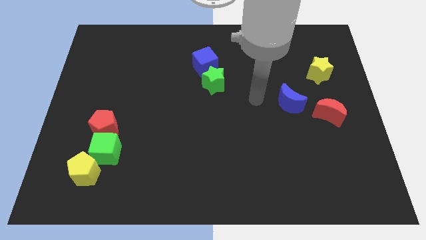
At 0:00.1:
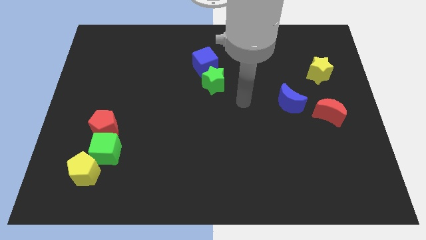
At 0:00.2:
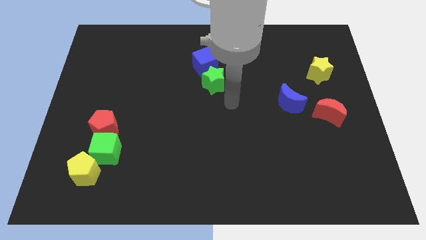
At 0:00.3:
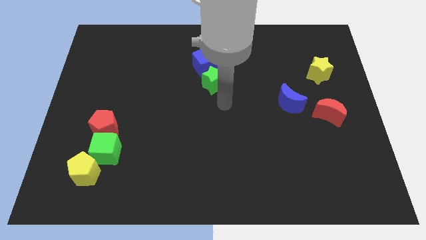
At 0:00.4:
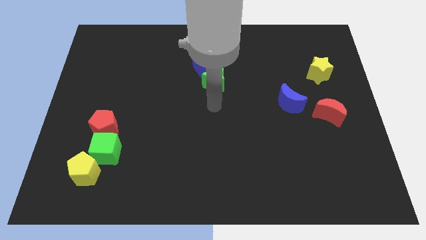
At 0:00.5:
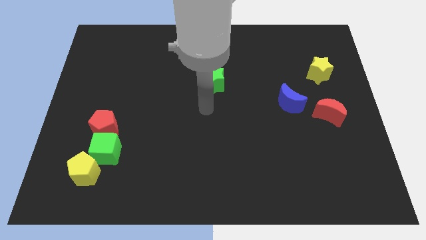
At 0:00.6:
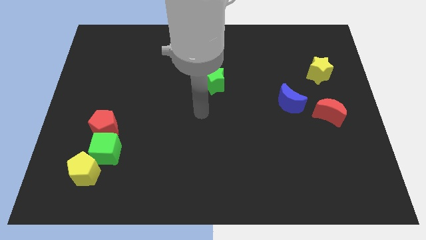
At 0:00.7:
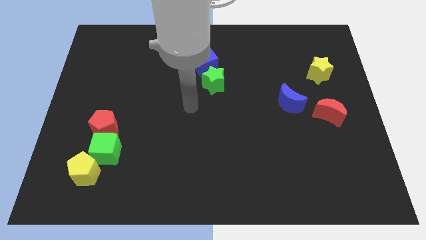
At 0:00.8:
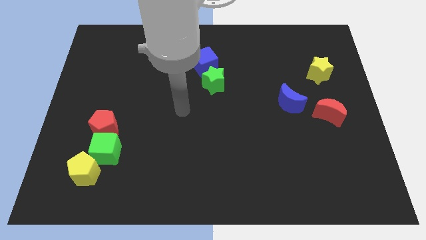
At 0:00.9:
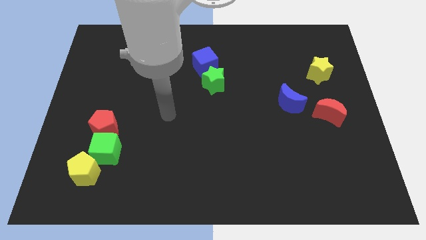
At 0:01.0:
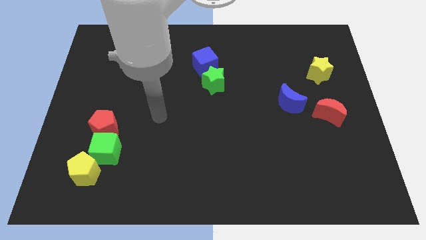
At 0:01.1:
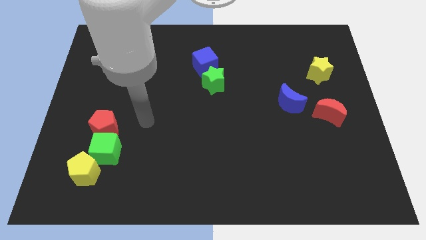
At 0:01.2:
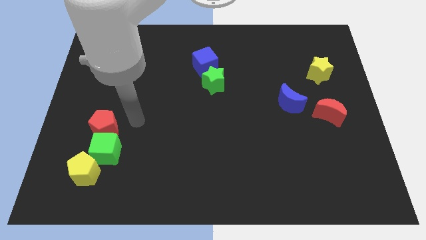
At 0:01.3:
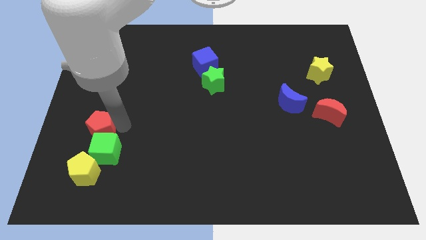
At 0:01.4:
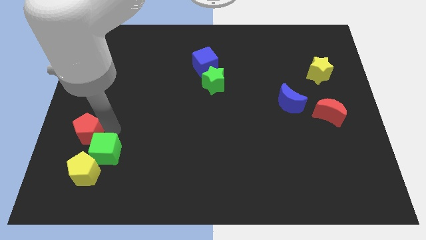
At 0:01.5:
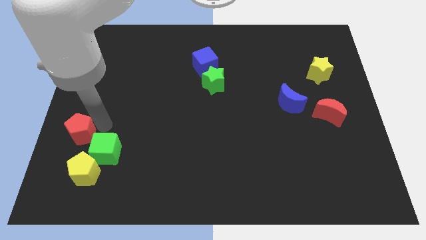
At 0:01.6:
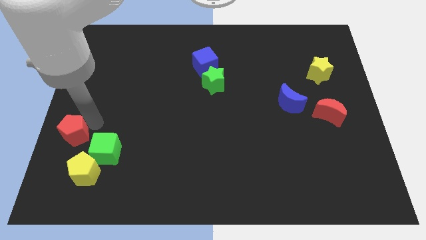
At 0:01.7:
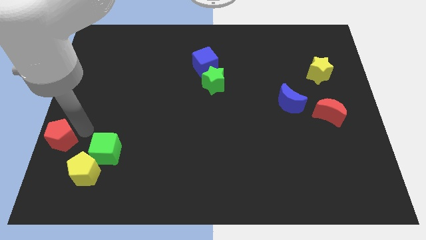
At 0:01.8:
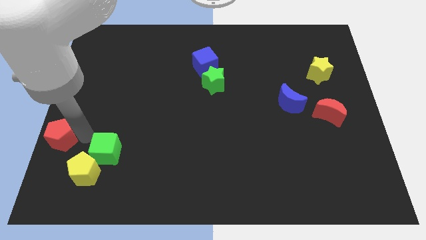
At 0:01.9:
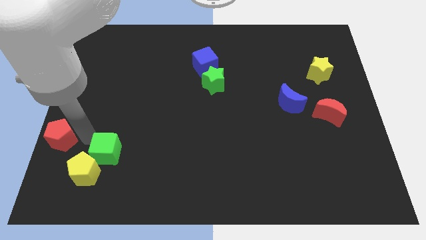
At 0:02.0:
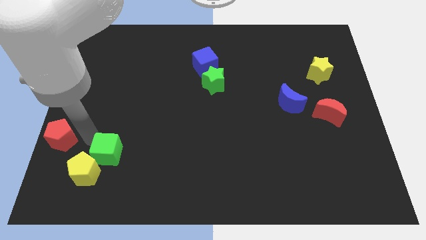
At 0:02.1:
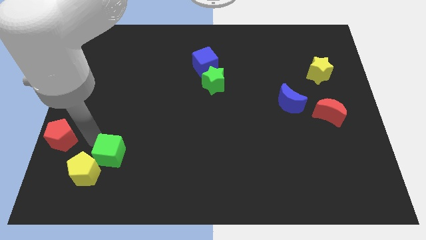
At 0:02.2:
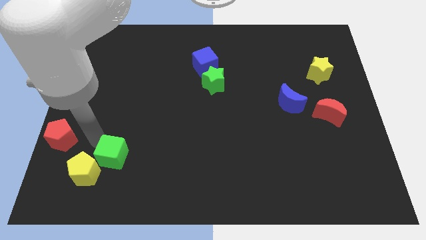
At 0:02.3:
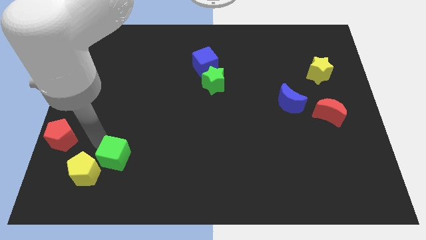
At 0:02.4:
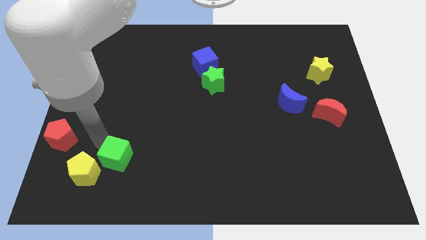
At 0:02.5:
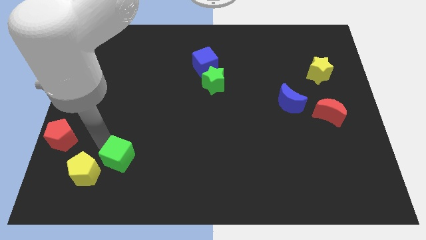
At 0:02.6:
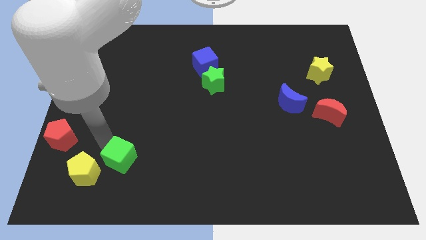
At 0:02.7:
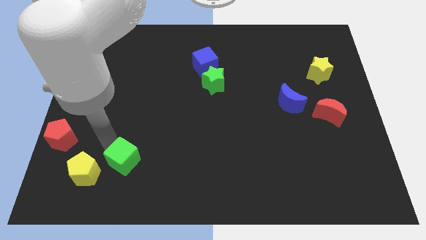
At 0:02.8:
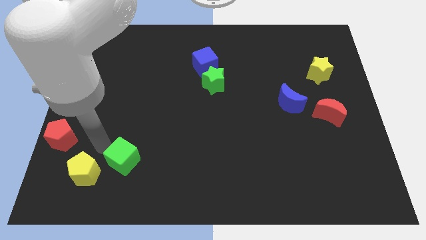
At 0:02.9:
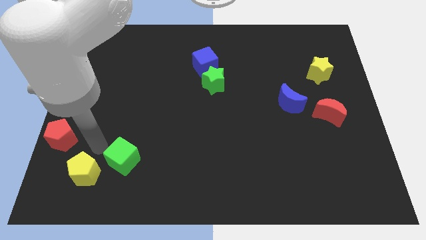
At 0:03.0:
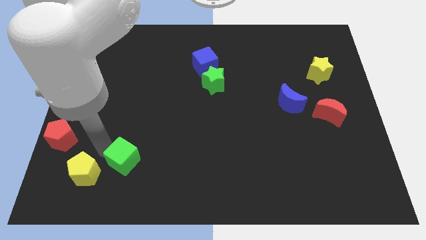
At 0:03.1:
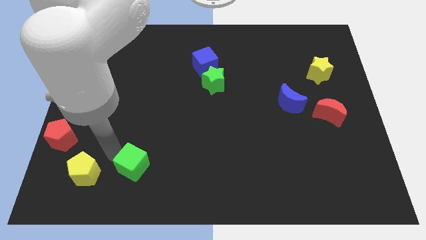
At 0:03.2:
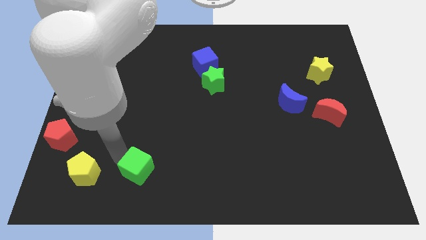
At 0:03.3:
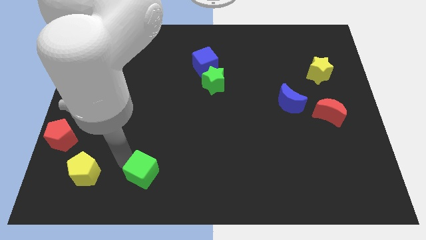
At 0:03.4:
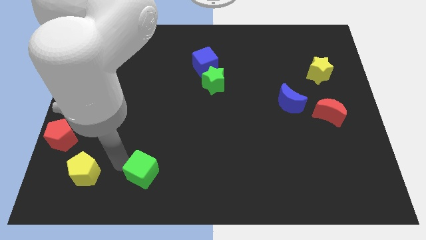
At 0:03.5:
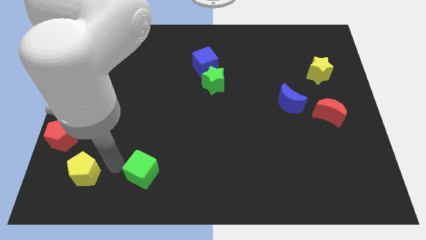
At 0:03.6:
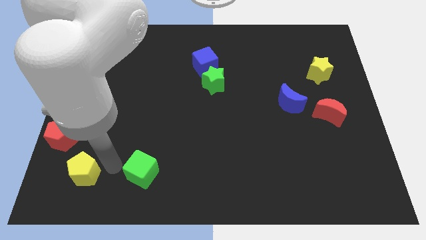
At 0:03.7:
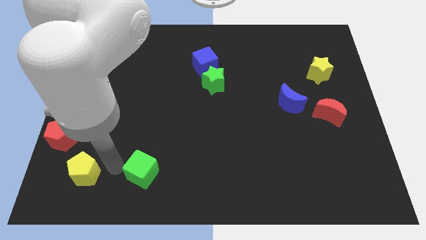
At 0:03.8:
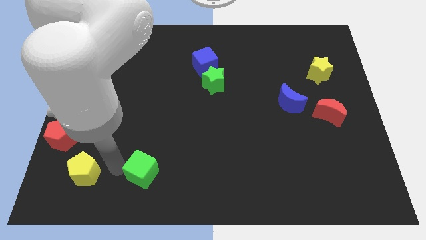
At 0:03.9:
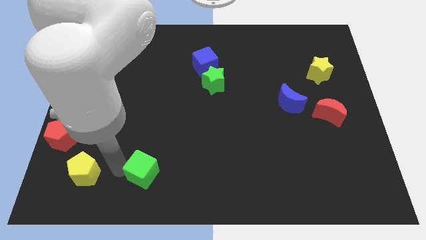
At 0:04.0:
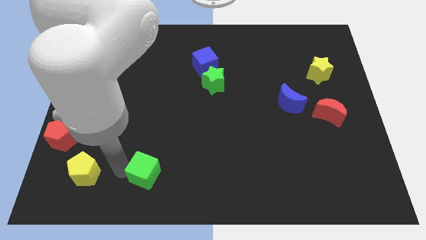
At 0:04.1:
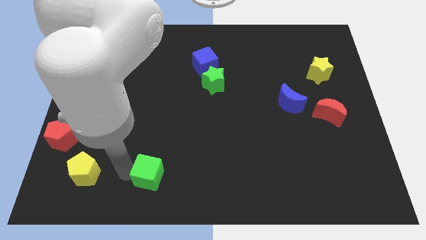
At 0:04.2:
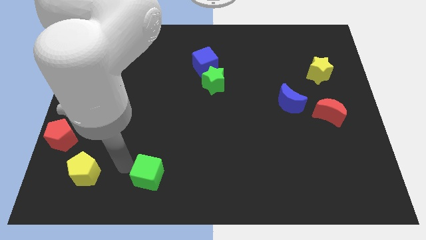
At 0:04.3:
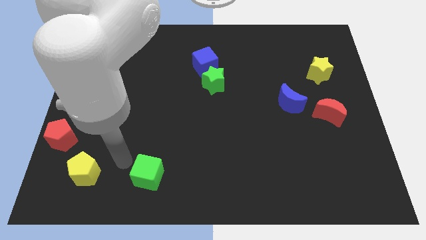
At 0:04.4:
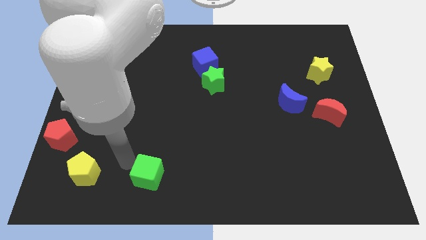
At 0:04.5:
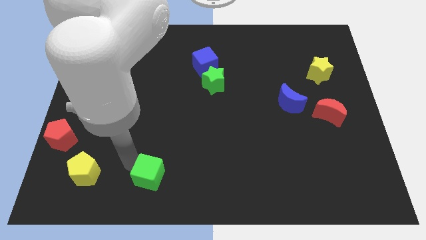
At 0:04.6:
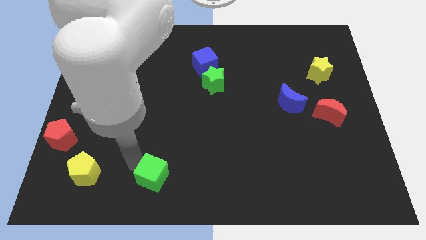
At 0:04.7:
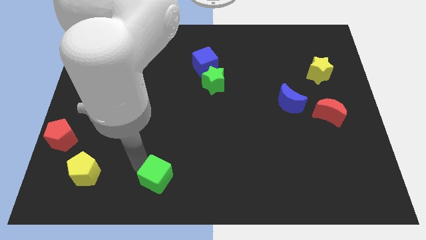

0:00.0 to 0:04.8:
put the green cube to the bottom side

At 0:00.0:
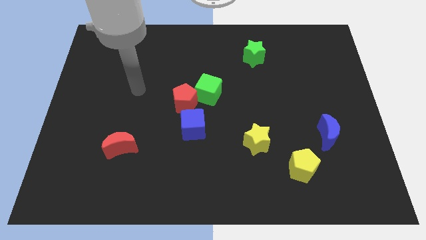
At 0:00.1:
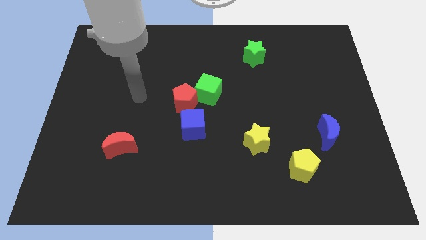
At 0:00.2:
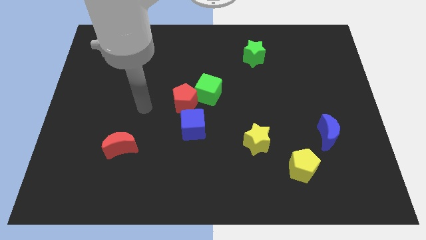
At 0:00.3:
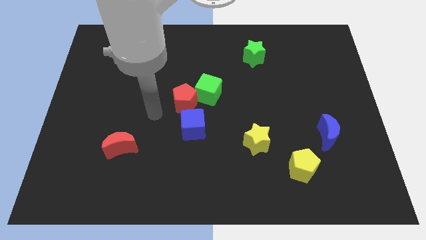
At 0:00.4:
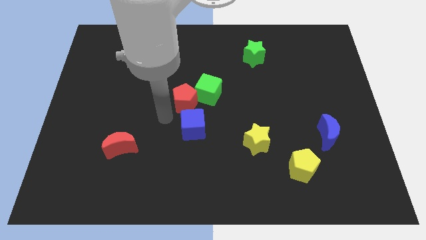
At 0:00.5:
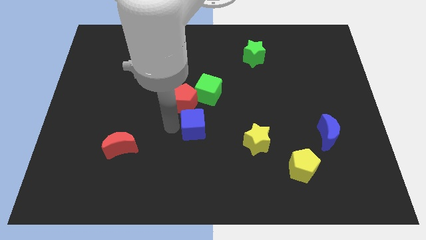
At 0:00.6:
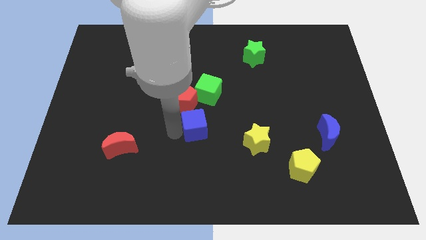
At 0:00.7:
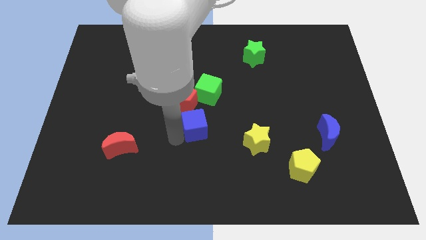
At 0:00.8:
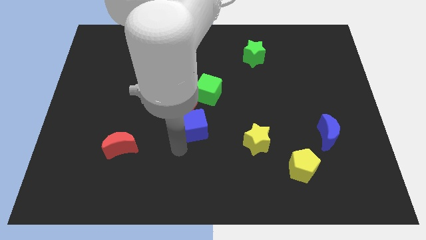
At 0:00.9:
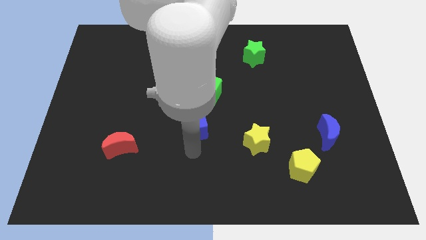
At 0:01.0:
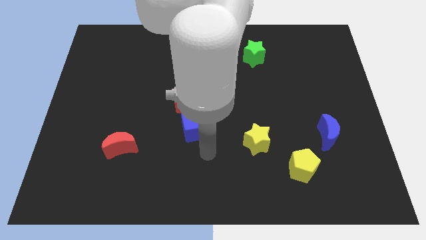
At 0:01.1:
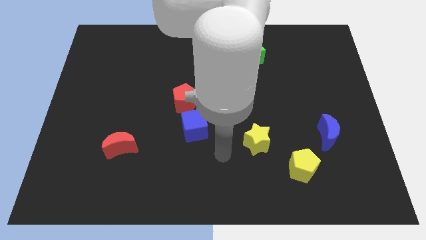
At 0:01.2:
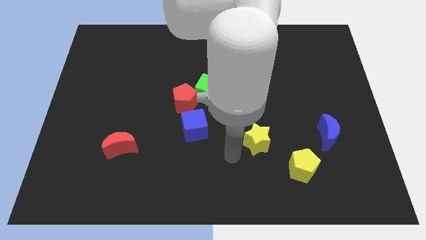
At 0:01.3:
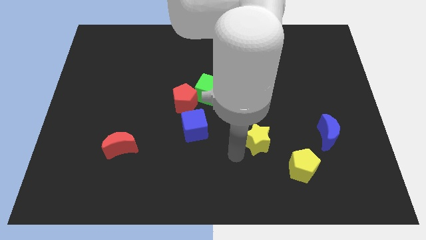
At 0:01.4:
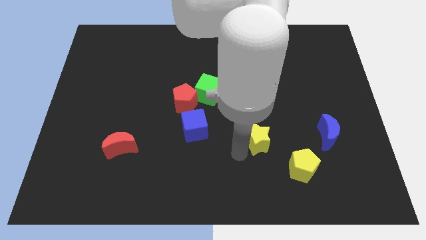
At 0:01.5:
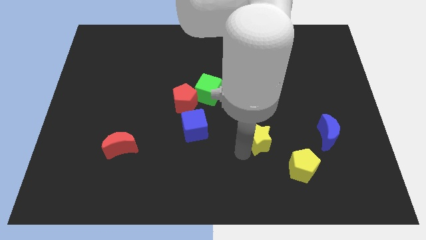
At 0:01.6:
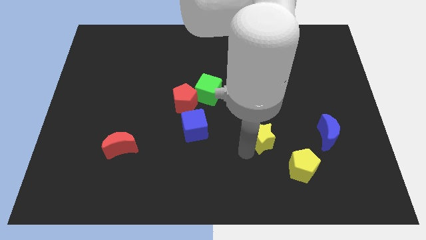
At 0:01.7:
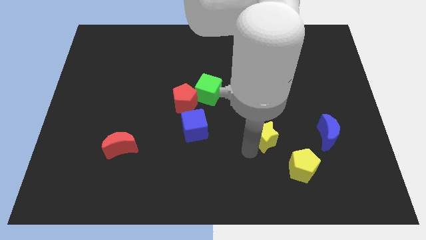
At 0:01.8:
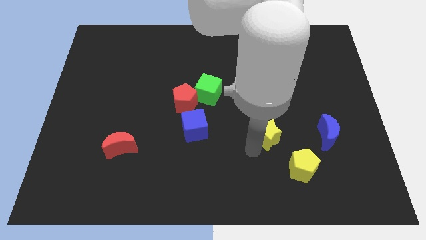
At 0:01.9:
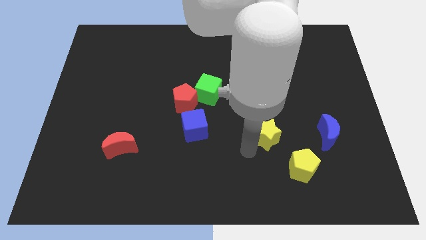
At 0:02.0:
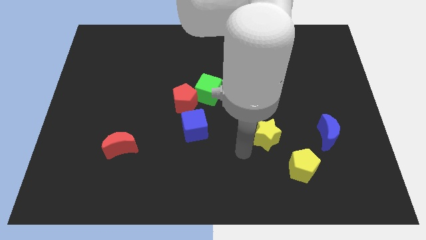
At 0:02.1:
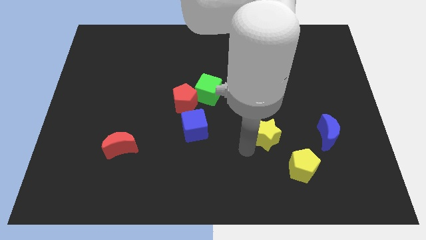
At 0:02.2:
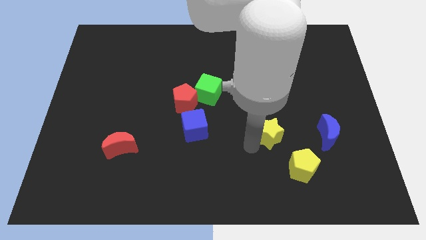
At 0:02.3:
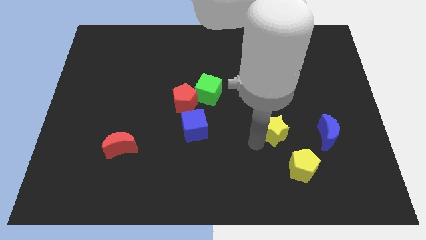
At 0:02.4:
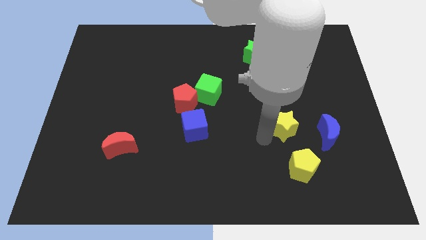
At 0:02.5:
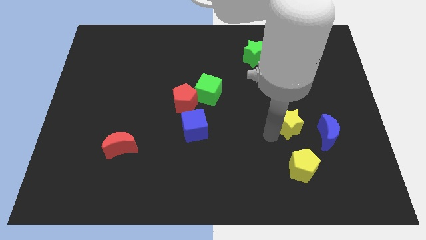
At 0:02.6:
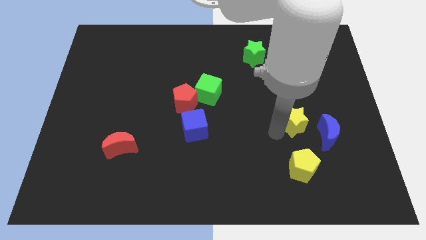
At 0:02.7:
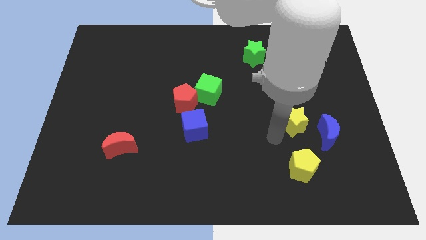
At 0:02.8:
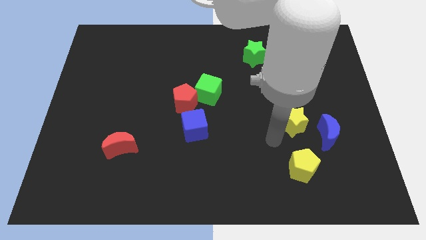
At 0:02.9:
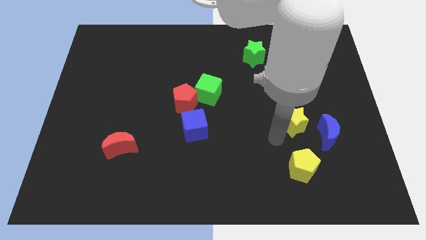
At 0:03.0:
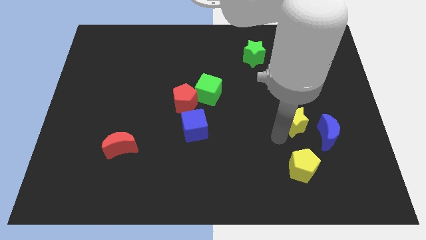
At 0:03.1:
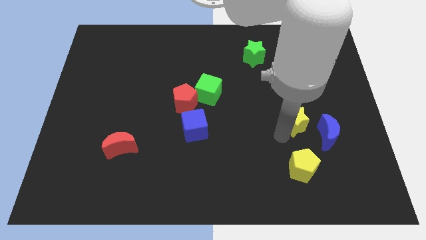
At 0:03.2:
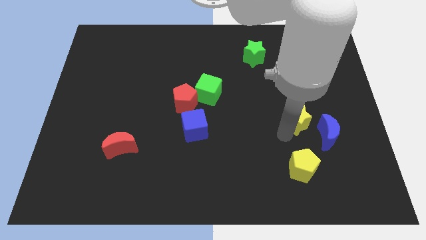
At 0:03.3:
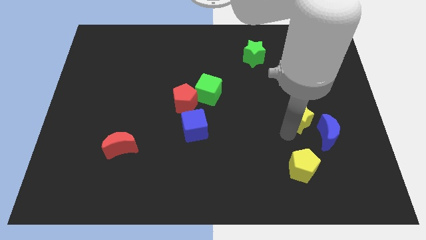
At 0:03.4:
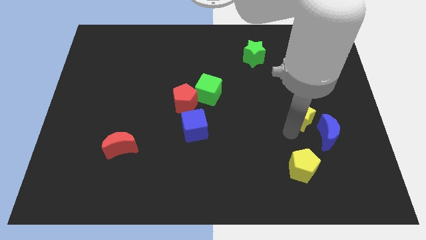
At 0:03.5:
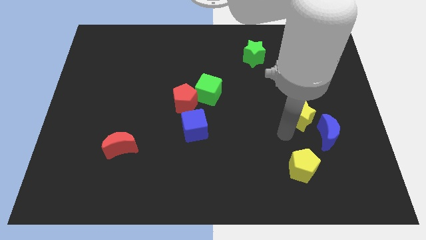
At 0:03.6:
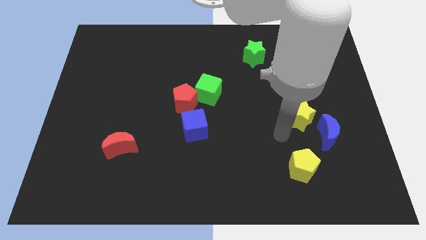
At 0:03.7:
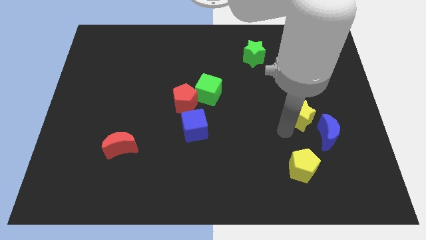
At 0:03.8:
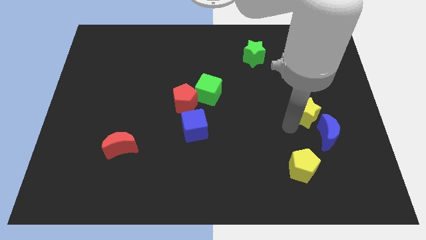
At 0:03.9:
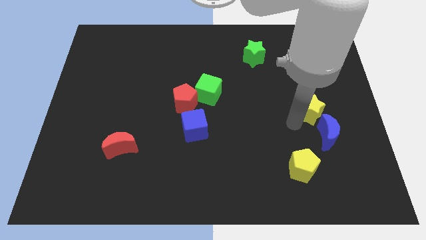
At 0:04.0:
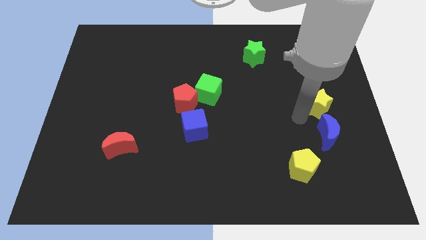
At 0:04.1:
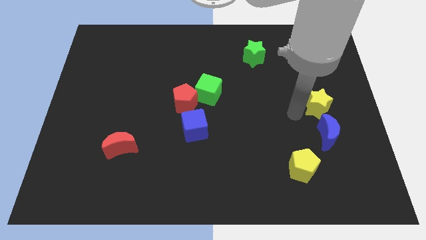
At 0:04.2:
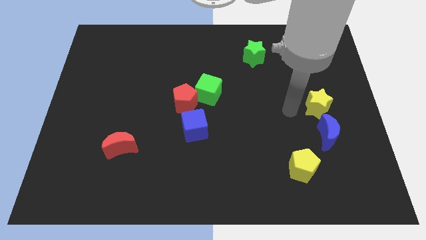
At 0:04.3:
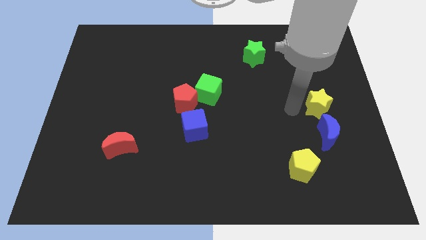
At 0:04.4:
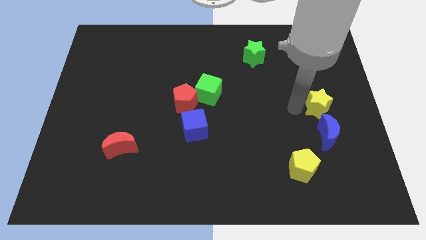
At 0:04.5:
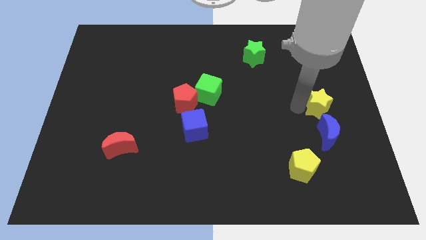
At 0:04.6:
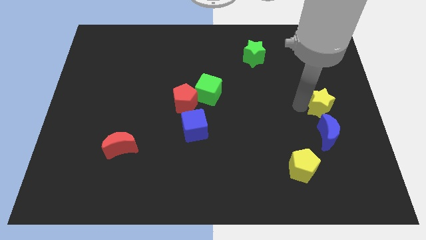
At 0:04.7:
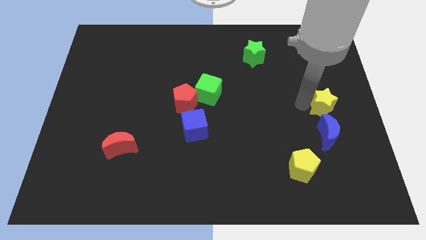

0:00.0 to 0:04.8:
put the yellow star to the center right
